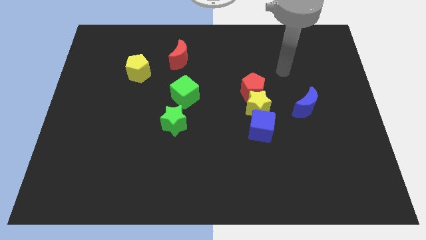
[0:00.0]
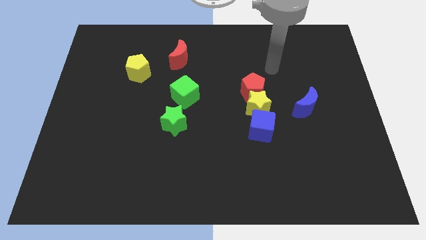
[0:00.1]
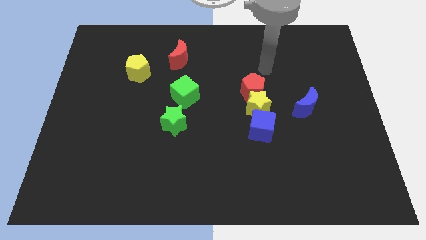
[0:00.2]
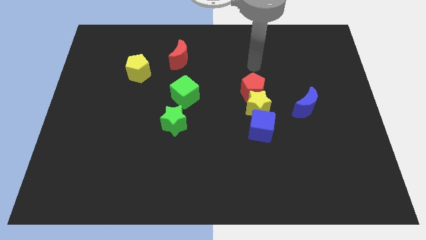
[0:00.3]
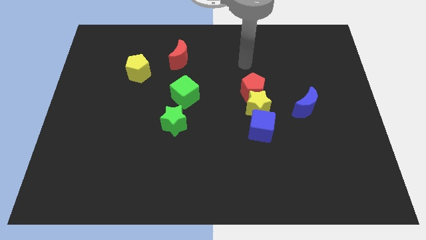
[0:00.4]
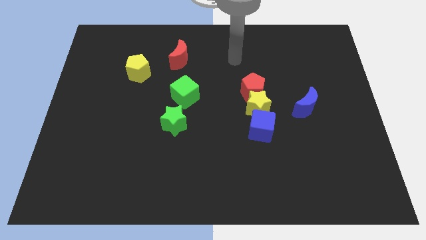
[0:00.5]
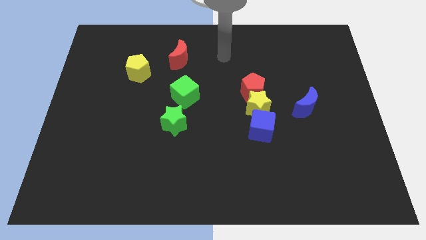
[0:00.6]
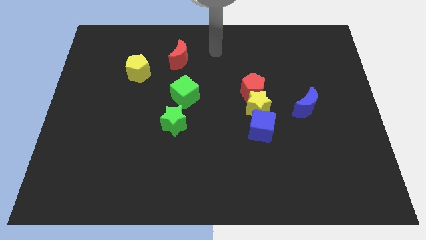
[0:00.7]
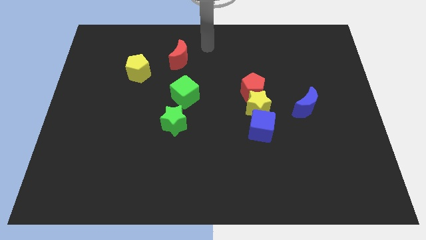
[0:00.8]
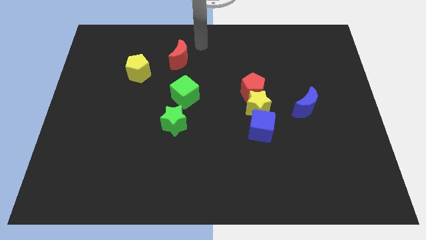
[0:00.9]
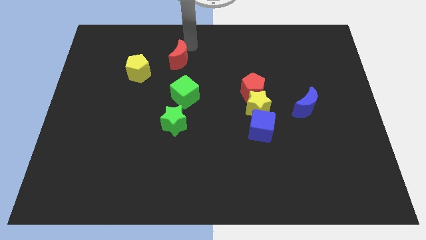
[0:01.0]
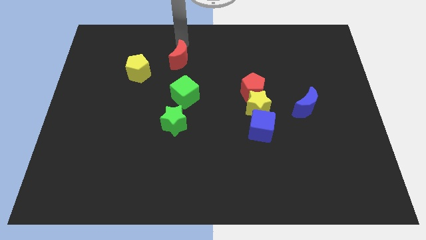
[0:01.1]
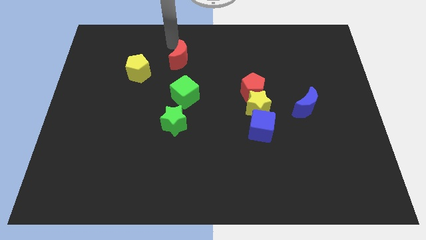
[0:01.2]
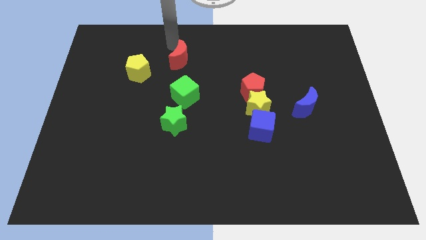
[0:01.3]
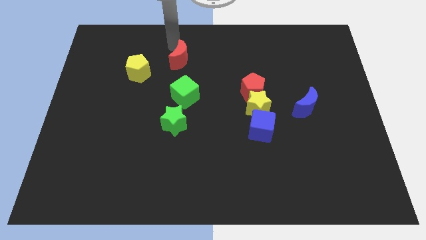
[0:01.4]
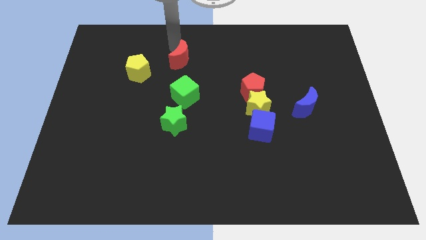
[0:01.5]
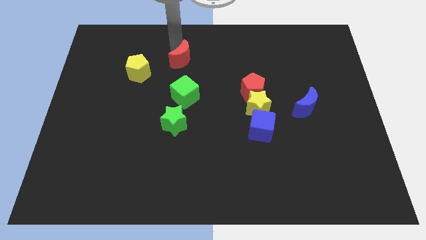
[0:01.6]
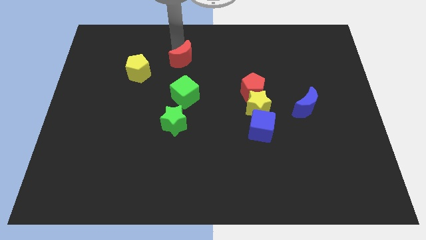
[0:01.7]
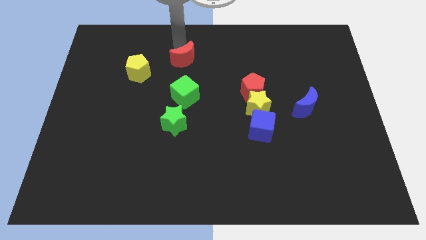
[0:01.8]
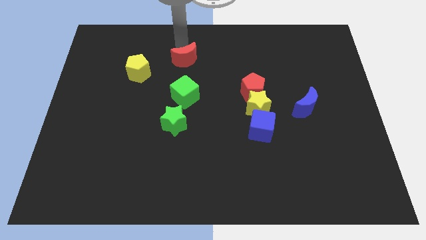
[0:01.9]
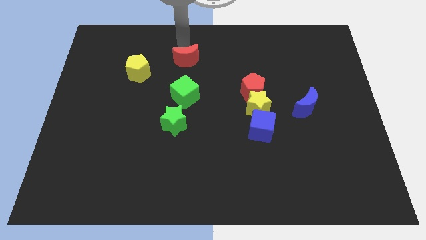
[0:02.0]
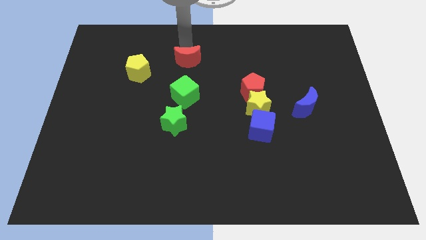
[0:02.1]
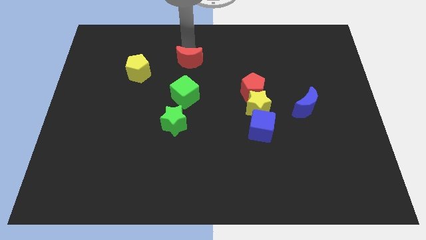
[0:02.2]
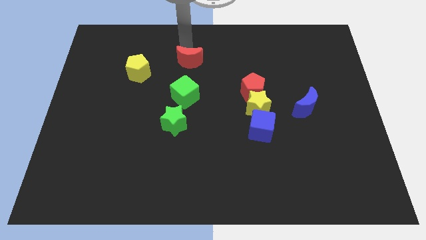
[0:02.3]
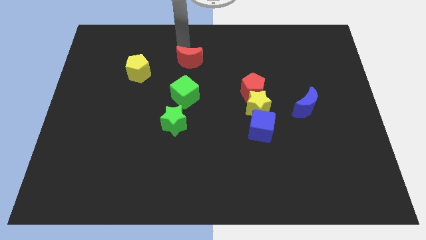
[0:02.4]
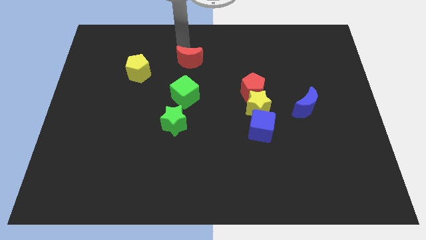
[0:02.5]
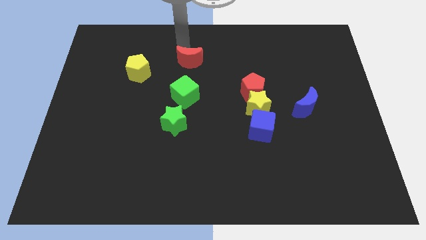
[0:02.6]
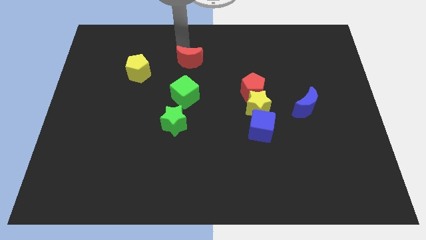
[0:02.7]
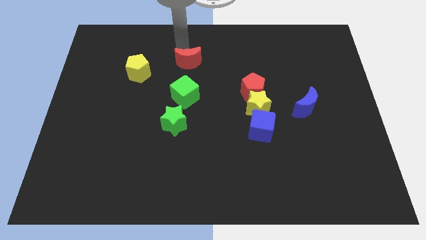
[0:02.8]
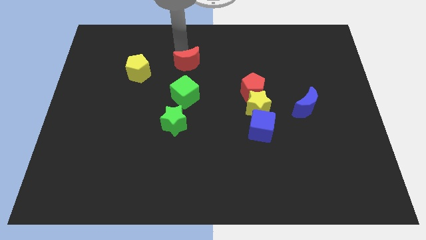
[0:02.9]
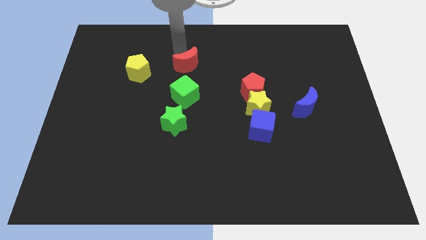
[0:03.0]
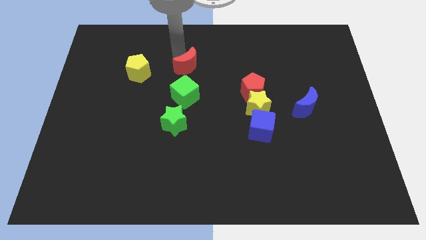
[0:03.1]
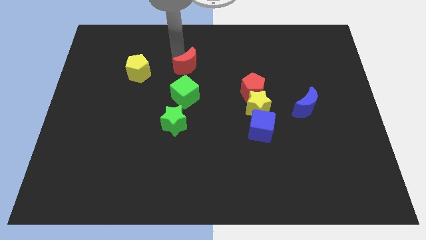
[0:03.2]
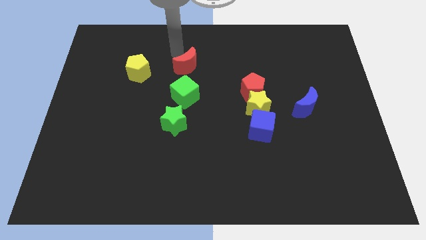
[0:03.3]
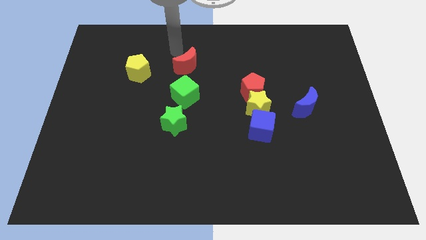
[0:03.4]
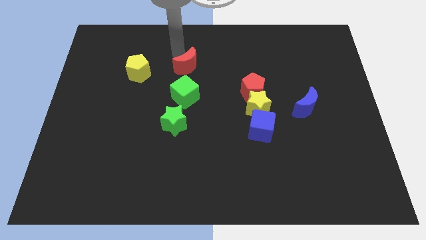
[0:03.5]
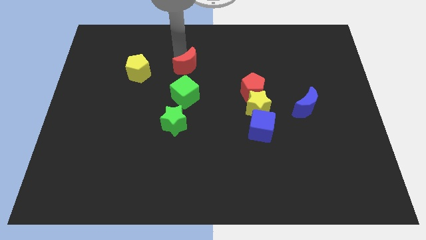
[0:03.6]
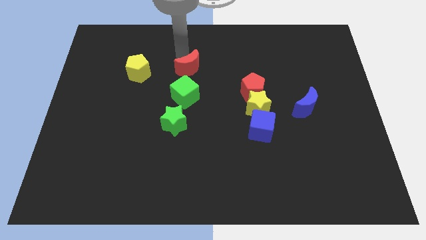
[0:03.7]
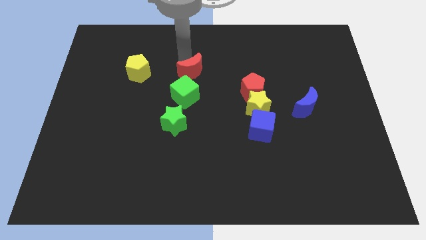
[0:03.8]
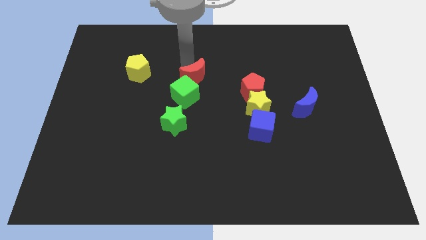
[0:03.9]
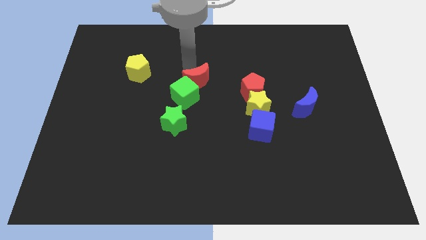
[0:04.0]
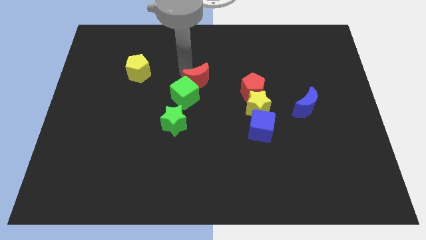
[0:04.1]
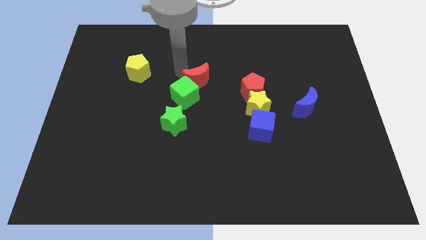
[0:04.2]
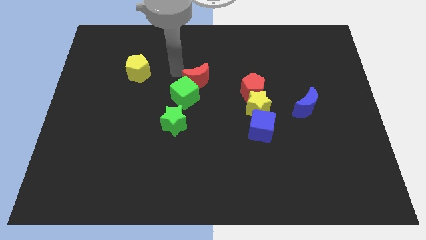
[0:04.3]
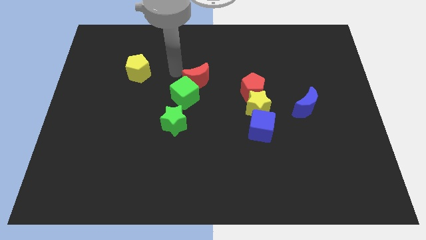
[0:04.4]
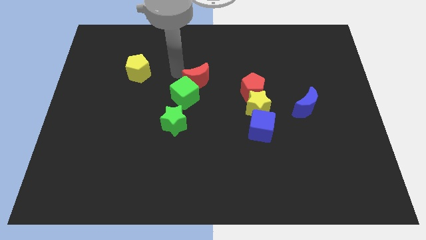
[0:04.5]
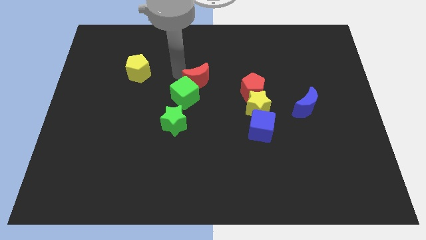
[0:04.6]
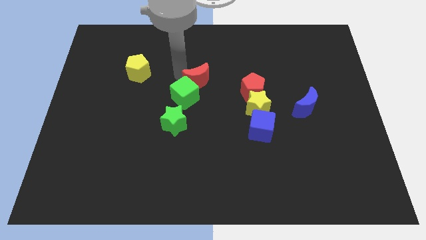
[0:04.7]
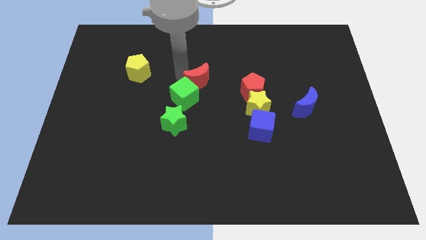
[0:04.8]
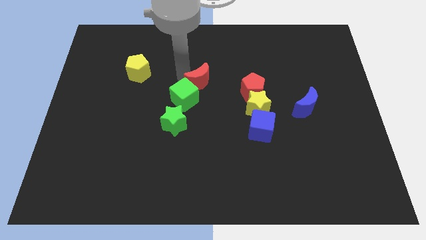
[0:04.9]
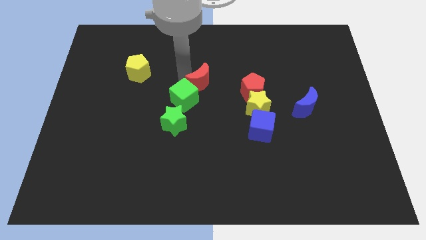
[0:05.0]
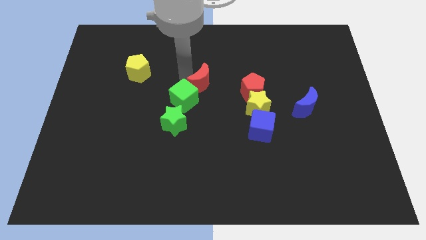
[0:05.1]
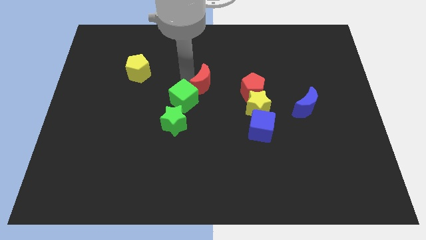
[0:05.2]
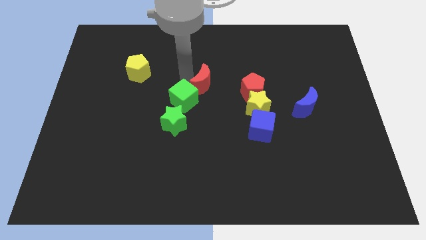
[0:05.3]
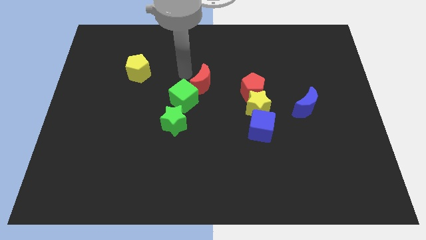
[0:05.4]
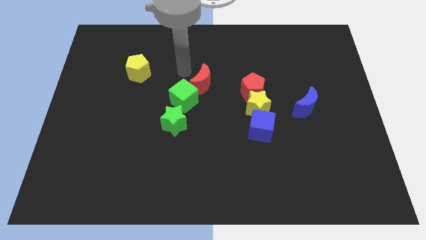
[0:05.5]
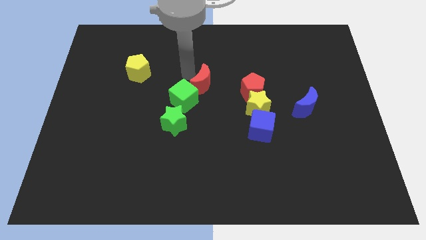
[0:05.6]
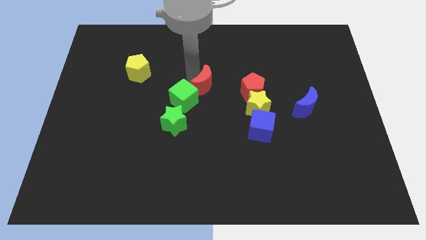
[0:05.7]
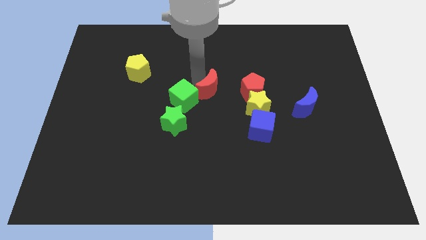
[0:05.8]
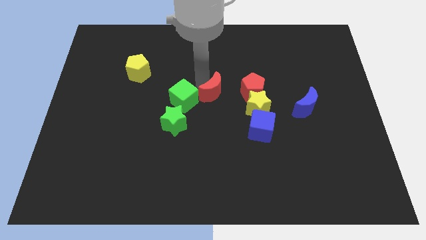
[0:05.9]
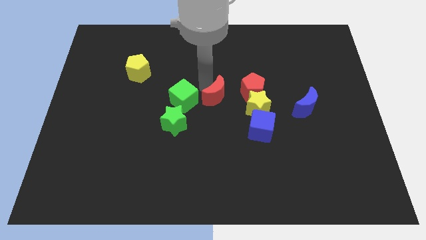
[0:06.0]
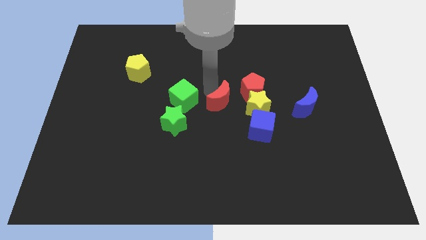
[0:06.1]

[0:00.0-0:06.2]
slide the red moon to the top left side of the blue cube

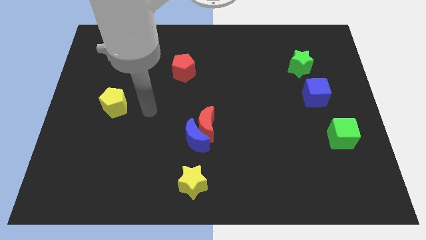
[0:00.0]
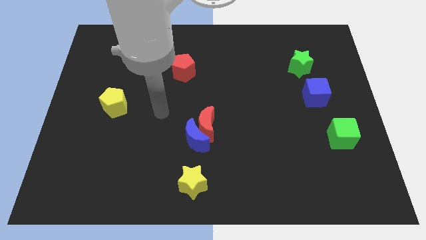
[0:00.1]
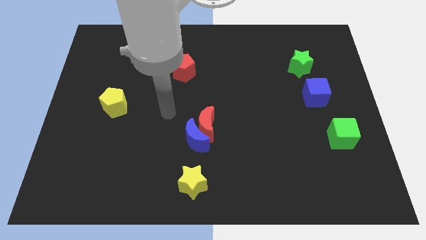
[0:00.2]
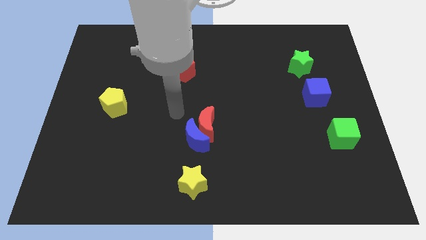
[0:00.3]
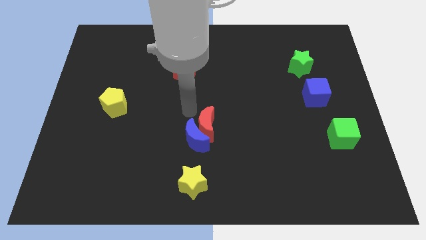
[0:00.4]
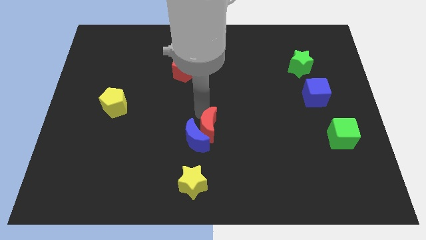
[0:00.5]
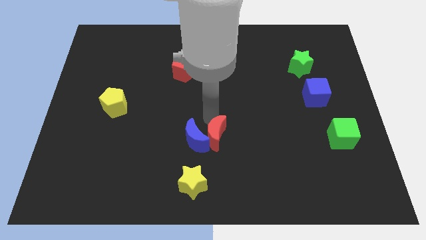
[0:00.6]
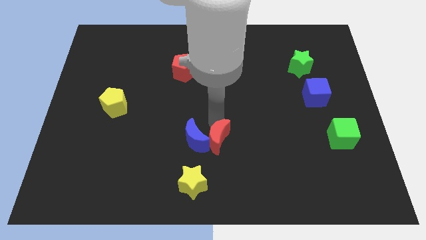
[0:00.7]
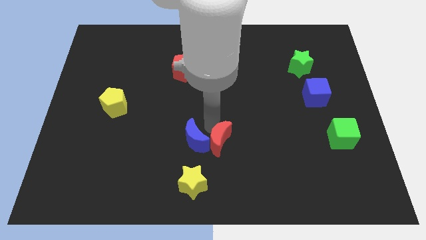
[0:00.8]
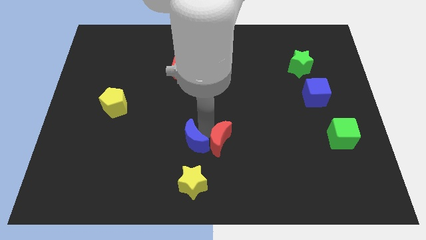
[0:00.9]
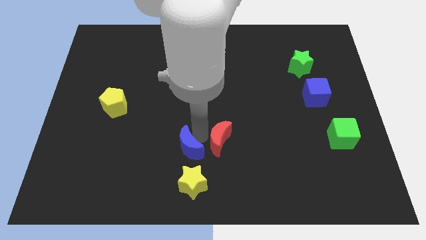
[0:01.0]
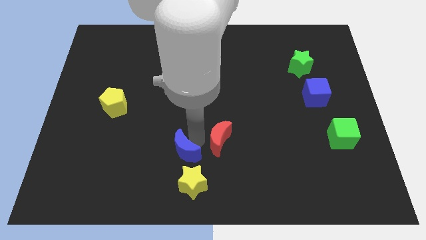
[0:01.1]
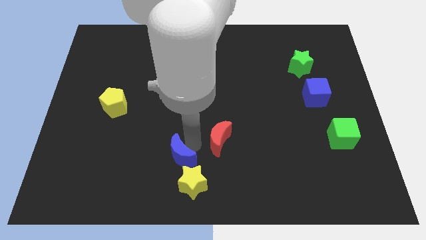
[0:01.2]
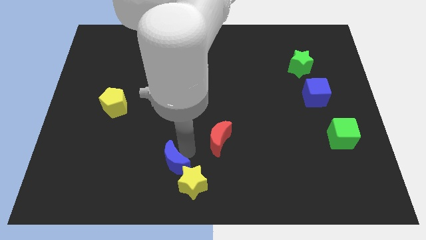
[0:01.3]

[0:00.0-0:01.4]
push the blue moon left of the yellow star
